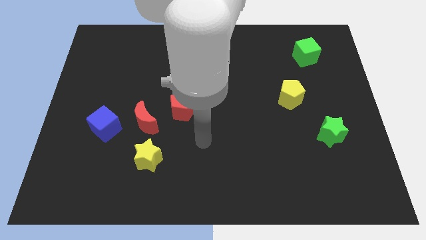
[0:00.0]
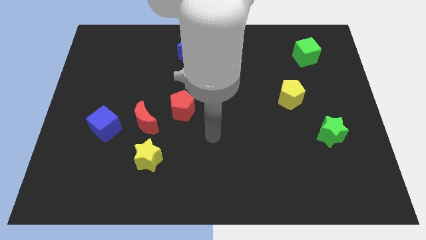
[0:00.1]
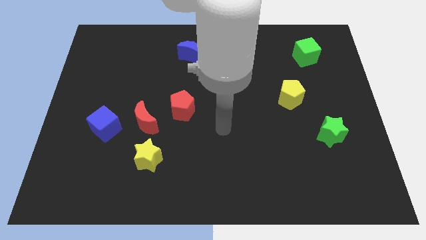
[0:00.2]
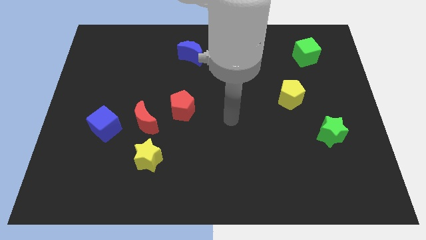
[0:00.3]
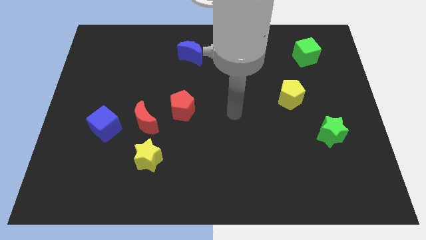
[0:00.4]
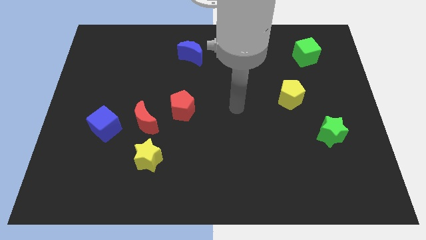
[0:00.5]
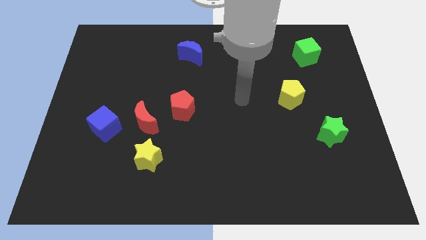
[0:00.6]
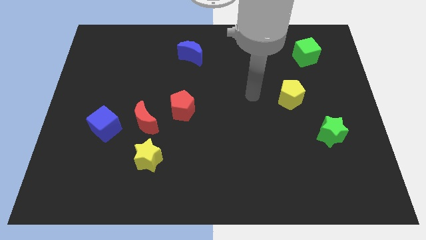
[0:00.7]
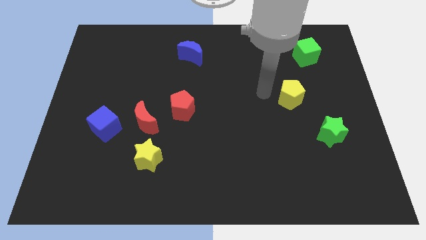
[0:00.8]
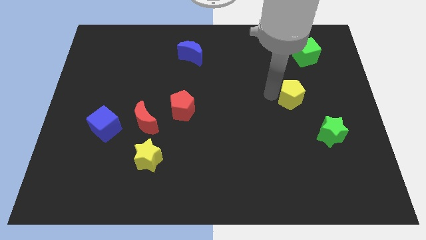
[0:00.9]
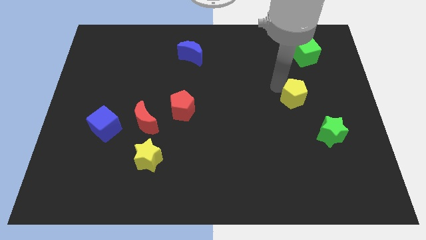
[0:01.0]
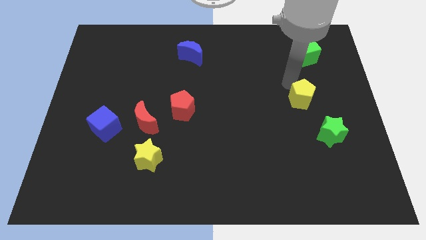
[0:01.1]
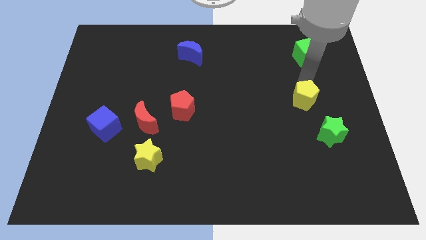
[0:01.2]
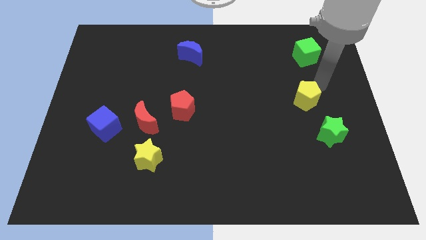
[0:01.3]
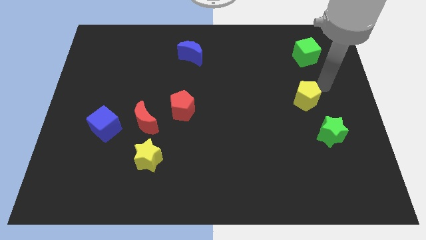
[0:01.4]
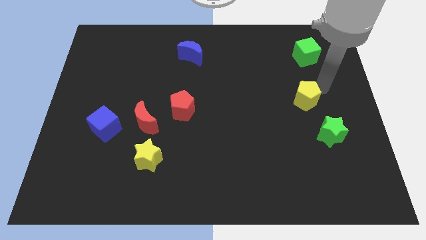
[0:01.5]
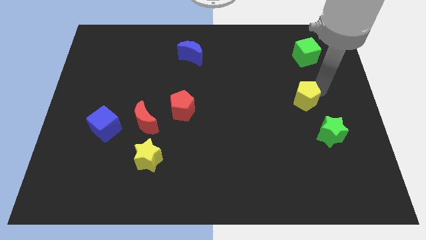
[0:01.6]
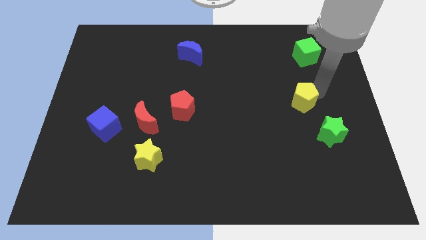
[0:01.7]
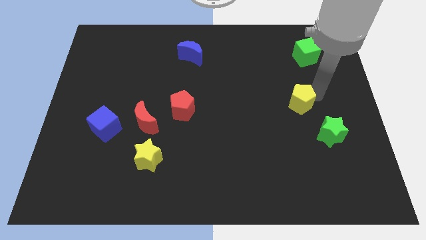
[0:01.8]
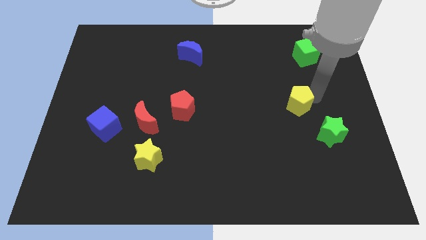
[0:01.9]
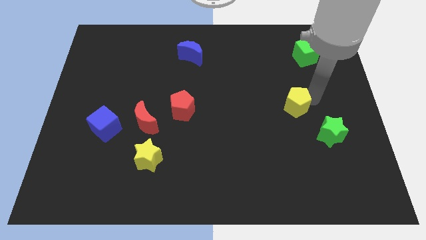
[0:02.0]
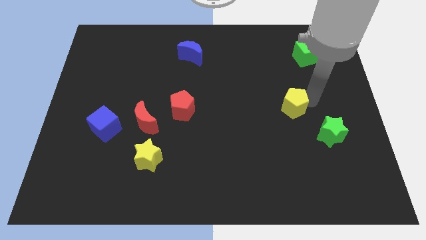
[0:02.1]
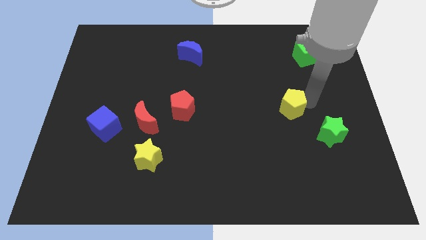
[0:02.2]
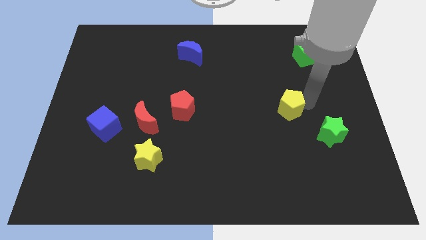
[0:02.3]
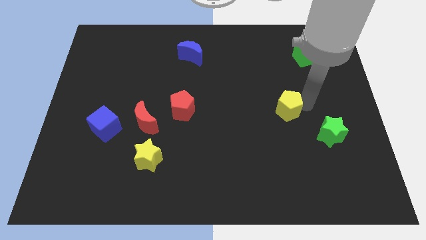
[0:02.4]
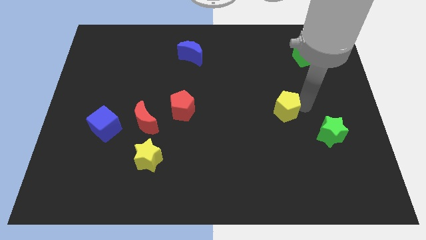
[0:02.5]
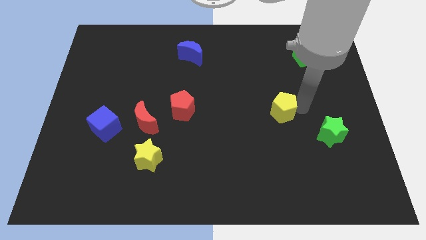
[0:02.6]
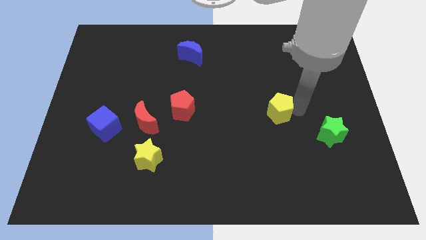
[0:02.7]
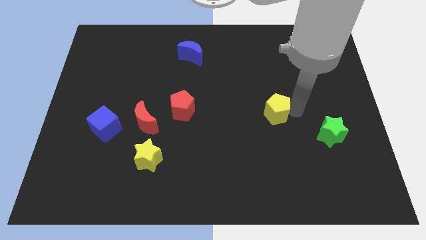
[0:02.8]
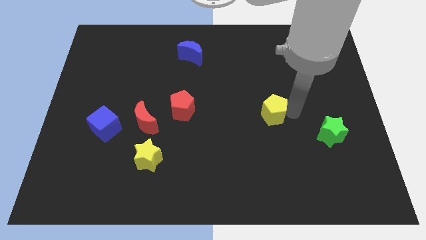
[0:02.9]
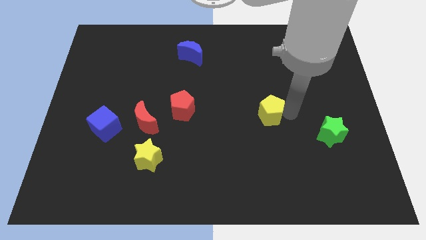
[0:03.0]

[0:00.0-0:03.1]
move the yellow pentagon somewhat downwards and to the left diagonally

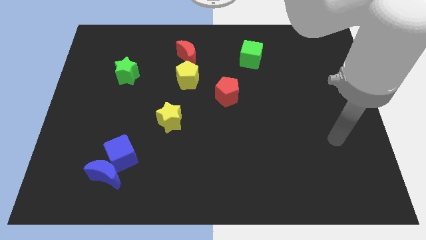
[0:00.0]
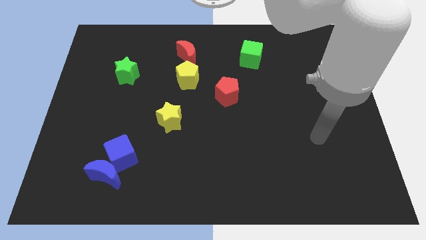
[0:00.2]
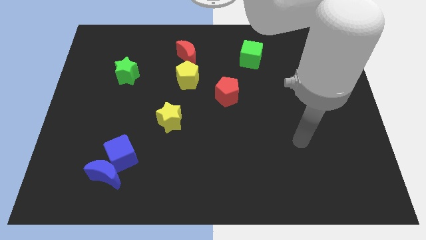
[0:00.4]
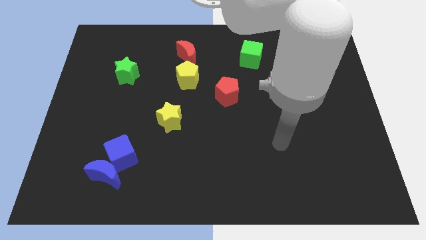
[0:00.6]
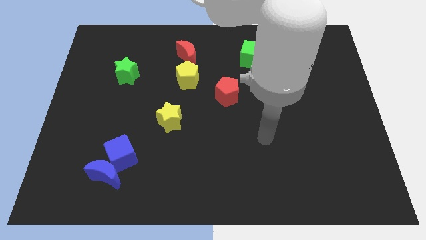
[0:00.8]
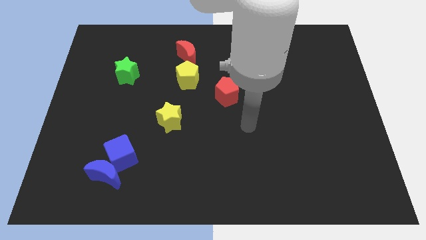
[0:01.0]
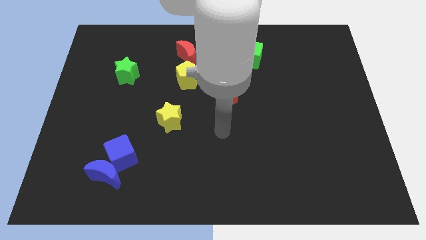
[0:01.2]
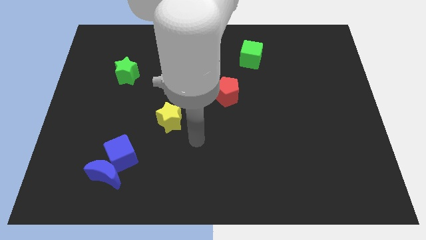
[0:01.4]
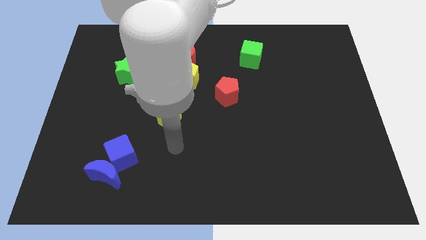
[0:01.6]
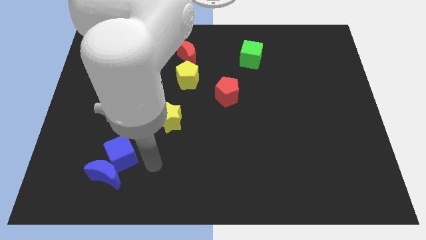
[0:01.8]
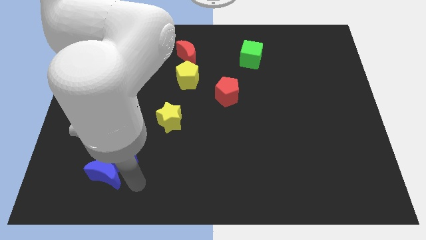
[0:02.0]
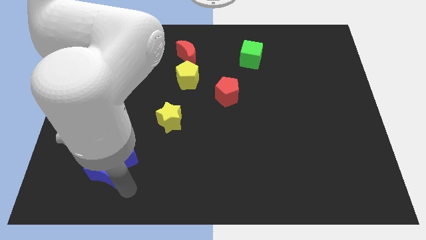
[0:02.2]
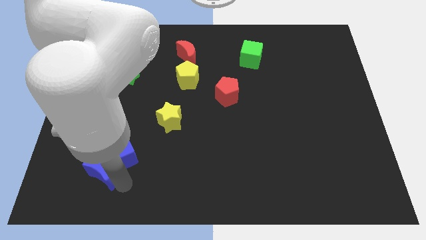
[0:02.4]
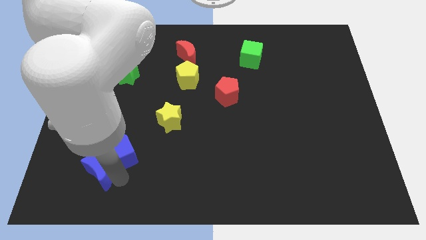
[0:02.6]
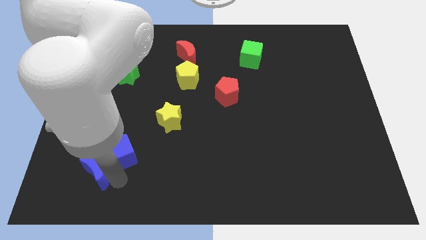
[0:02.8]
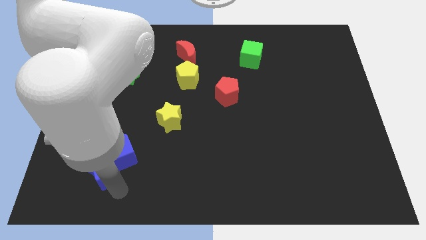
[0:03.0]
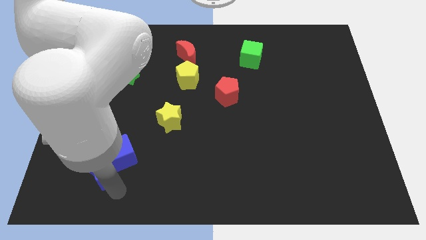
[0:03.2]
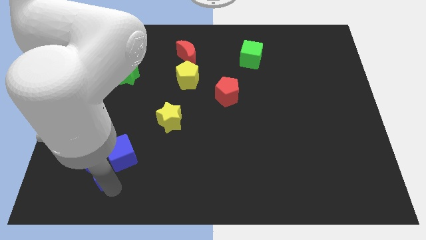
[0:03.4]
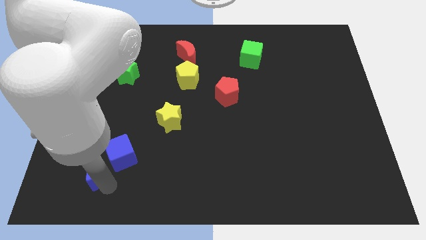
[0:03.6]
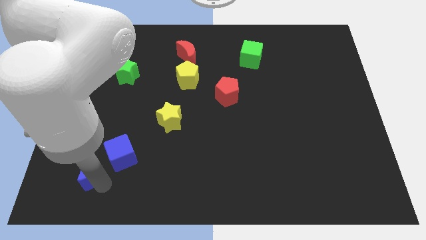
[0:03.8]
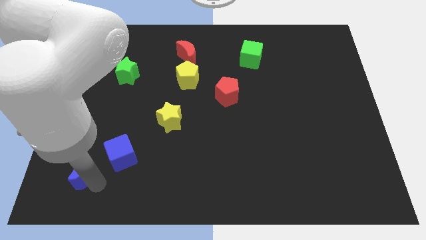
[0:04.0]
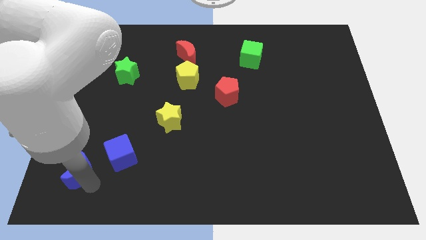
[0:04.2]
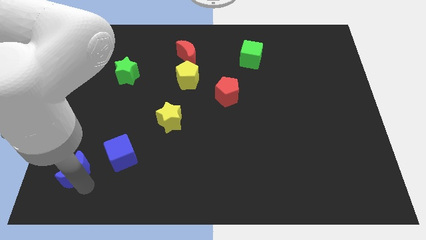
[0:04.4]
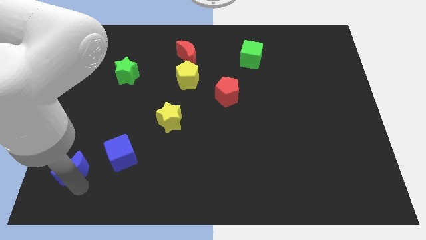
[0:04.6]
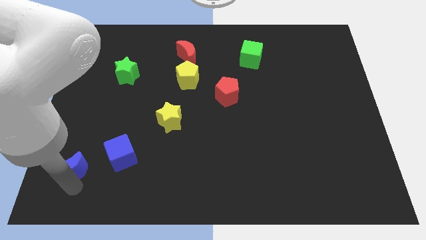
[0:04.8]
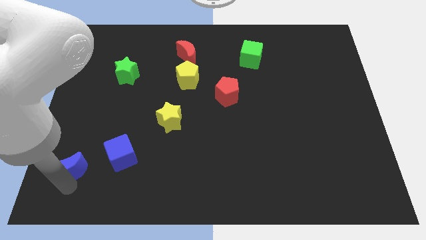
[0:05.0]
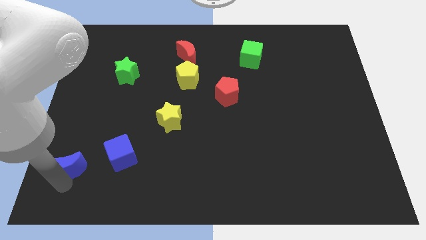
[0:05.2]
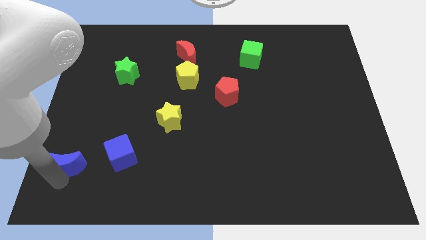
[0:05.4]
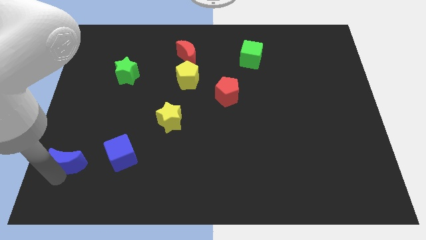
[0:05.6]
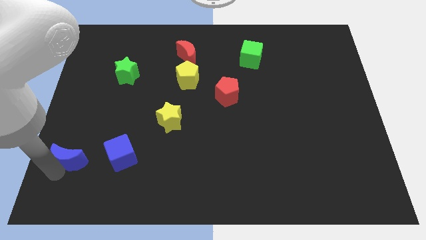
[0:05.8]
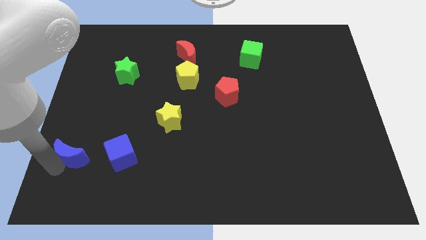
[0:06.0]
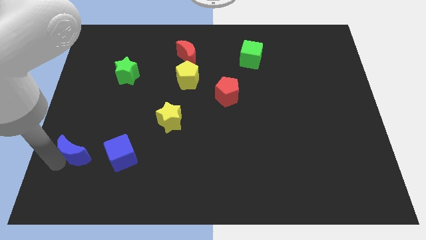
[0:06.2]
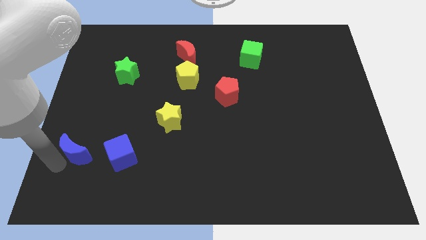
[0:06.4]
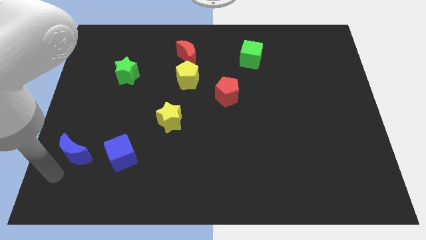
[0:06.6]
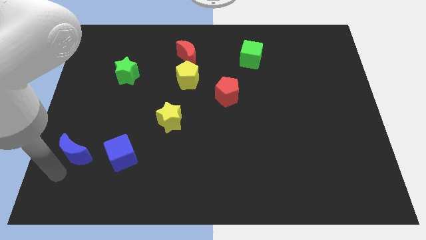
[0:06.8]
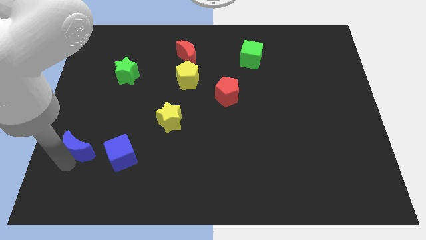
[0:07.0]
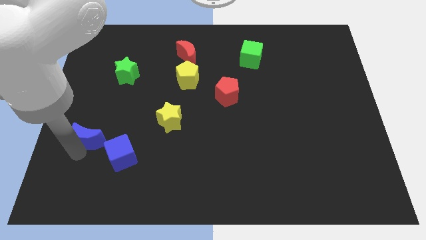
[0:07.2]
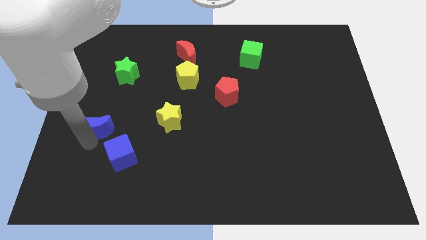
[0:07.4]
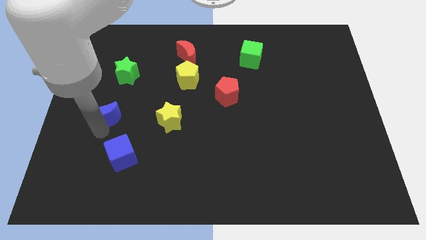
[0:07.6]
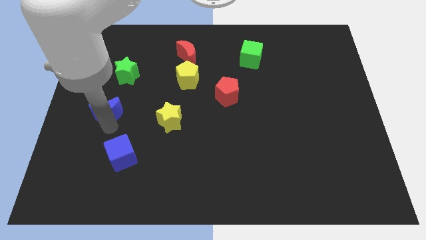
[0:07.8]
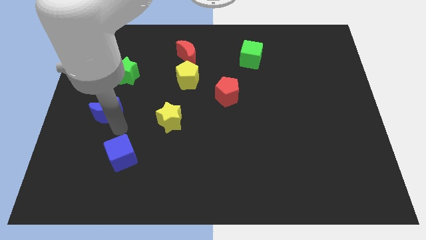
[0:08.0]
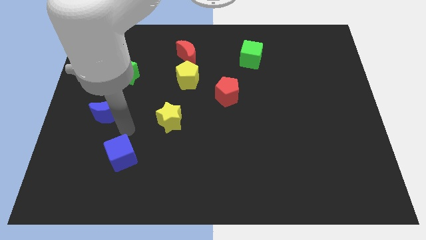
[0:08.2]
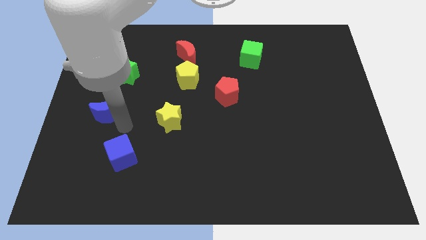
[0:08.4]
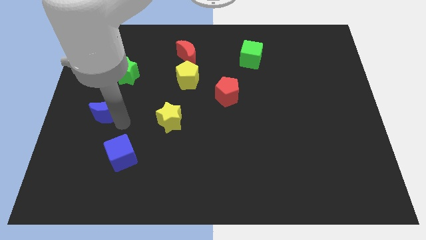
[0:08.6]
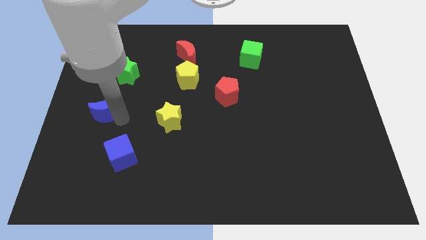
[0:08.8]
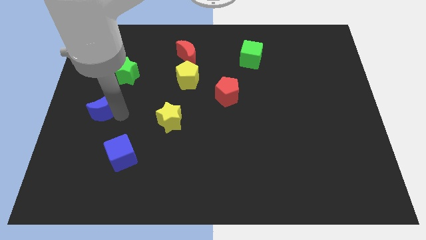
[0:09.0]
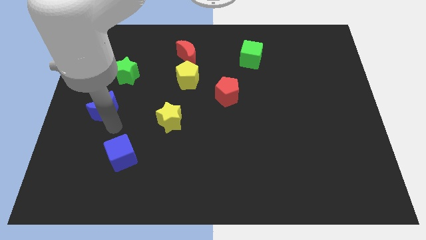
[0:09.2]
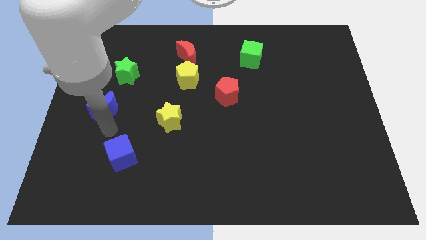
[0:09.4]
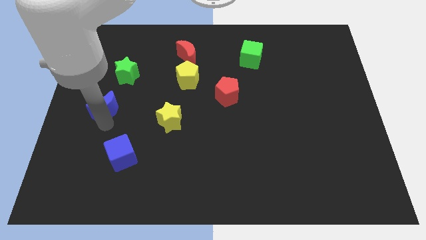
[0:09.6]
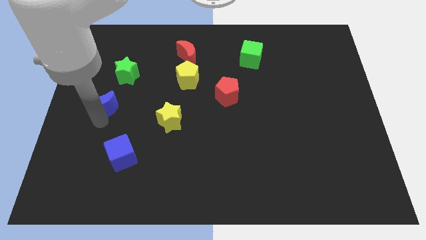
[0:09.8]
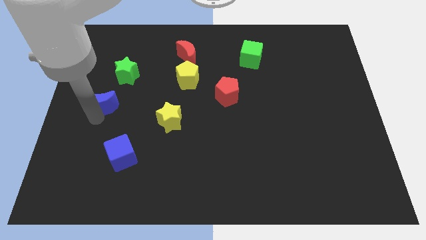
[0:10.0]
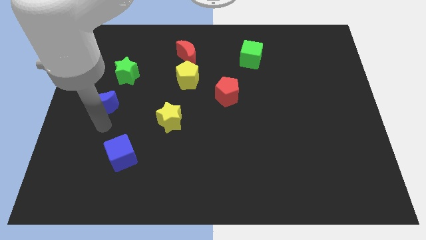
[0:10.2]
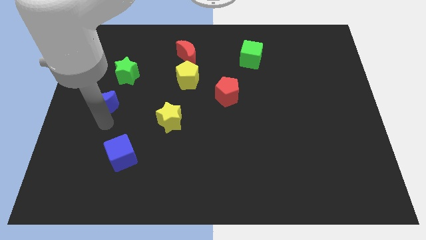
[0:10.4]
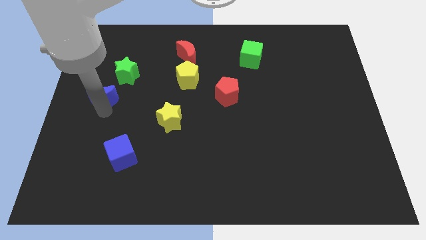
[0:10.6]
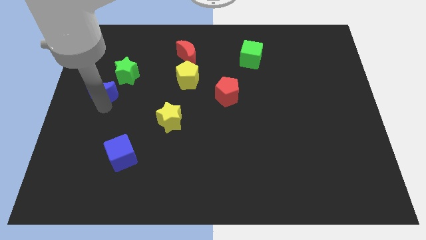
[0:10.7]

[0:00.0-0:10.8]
slide the blue moon upwards

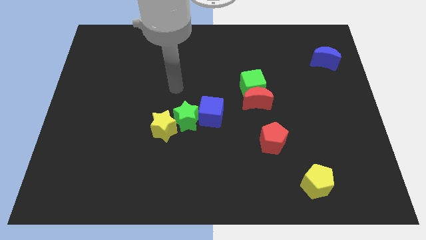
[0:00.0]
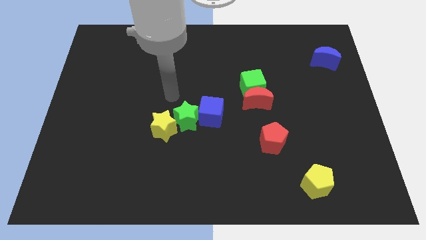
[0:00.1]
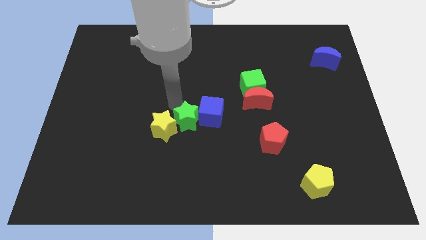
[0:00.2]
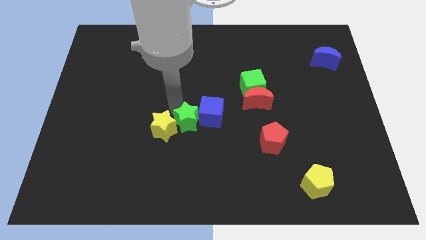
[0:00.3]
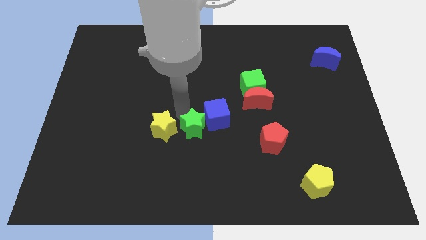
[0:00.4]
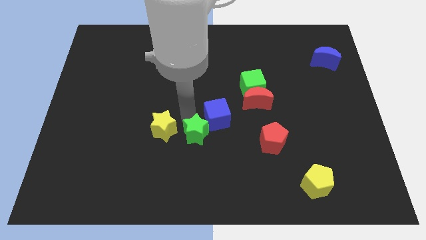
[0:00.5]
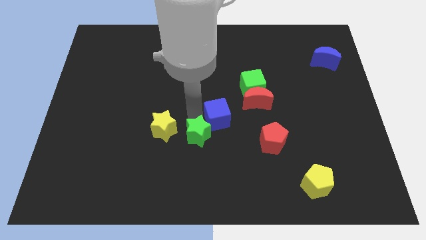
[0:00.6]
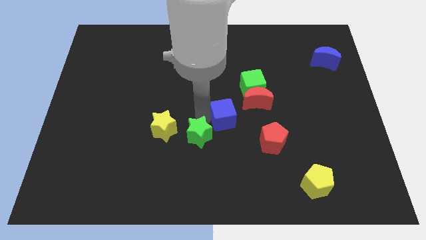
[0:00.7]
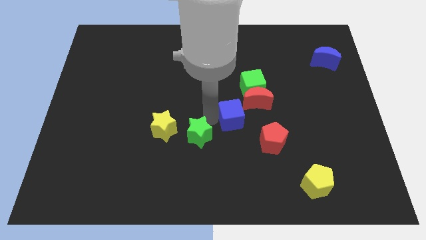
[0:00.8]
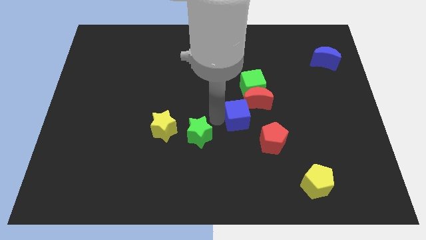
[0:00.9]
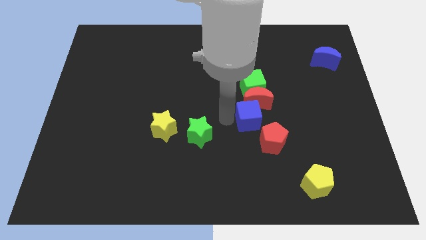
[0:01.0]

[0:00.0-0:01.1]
slide the blue cube right a bit
